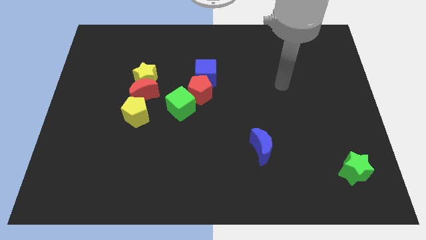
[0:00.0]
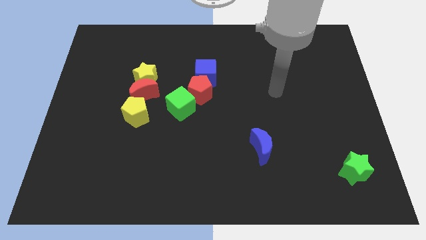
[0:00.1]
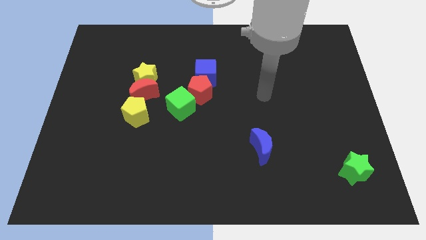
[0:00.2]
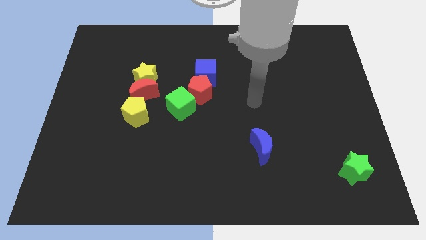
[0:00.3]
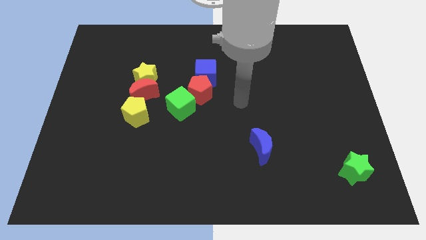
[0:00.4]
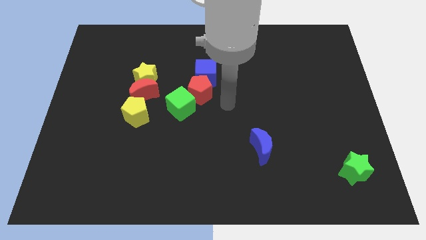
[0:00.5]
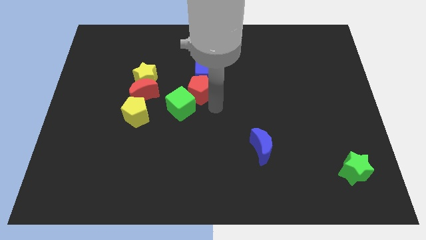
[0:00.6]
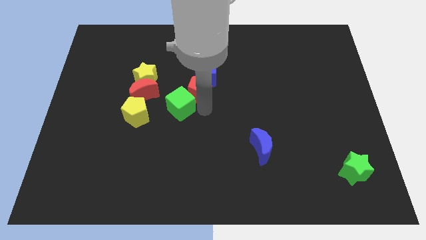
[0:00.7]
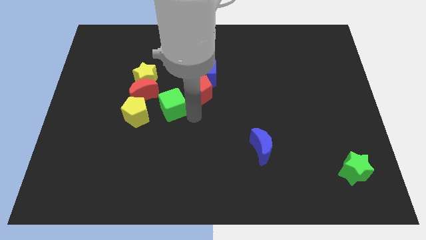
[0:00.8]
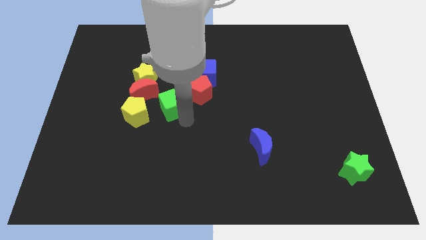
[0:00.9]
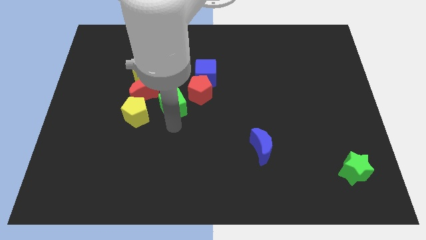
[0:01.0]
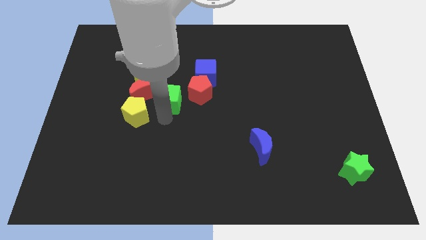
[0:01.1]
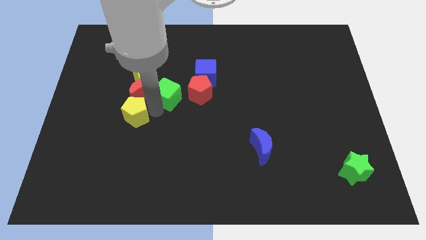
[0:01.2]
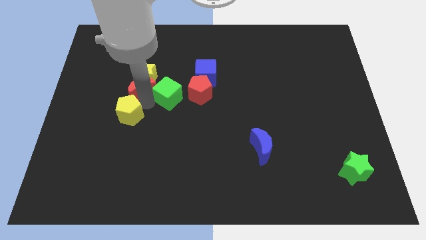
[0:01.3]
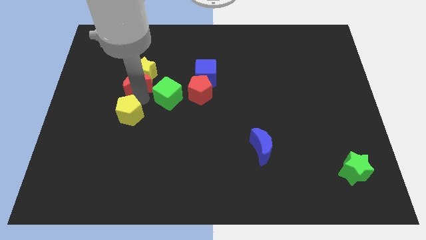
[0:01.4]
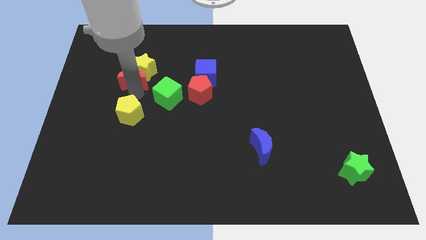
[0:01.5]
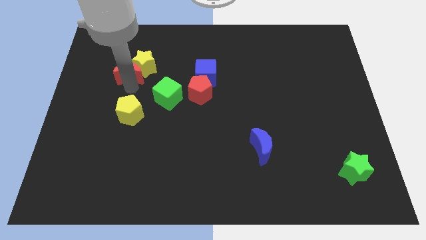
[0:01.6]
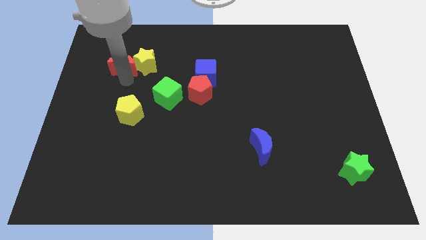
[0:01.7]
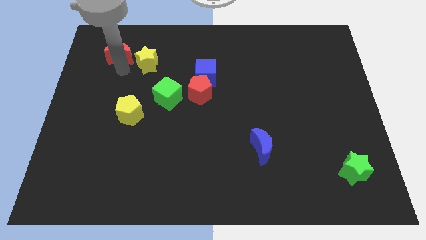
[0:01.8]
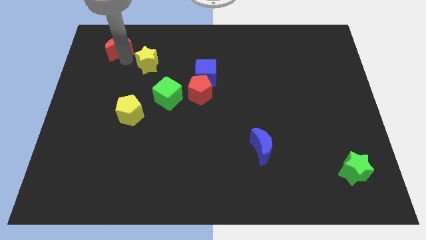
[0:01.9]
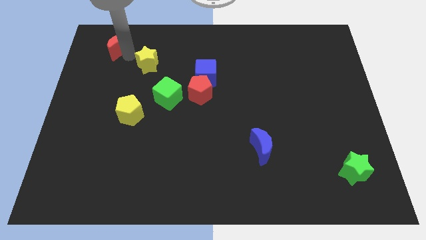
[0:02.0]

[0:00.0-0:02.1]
separate the yellow star from the red moon

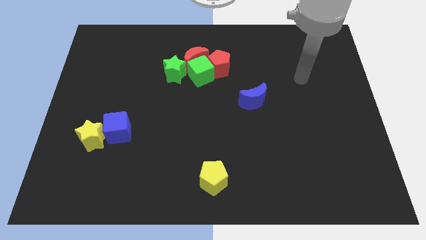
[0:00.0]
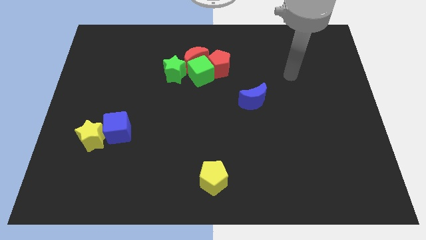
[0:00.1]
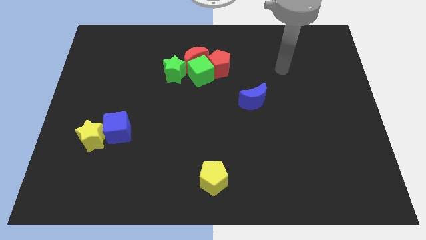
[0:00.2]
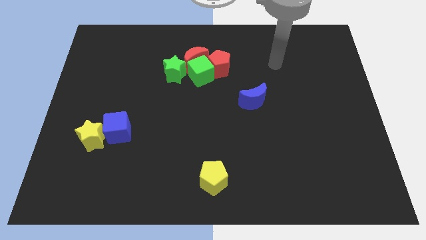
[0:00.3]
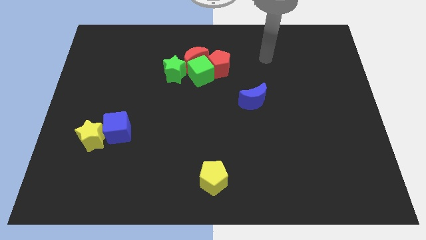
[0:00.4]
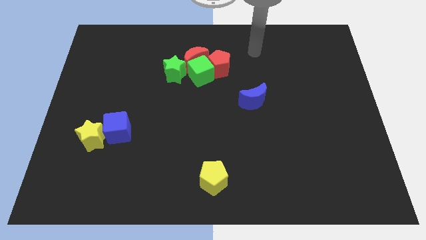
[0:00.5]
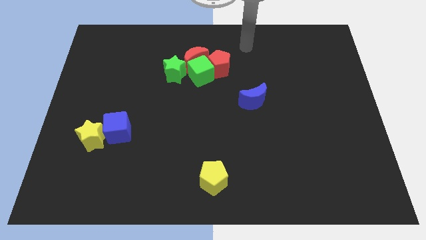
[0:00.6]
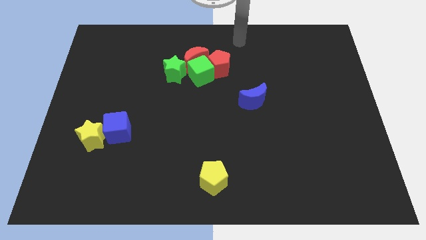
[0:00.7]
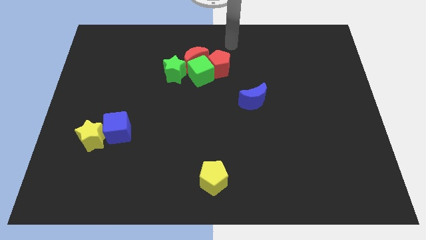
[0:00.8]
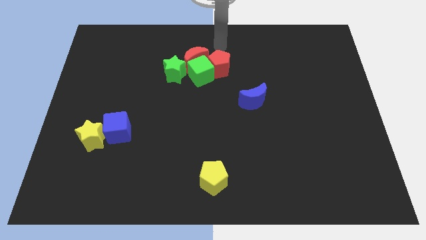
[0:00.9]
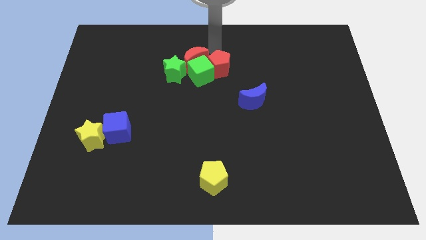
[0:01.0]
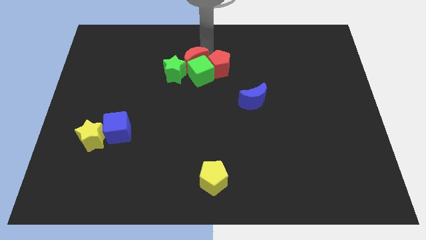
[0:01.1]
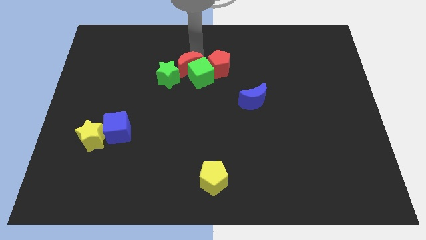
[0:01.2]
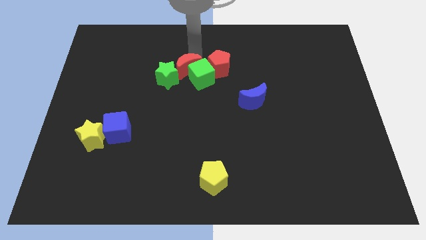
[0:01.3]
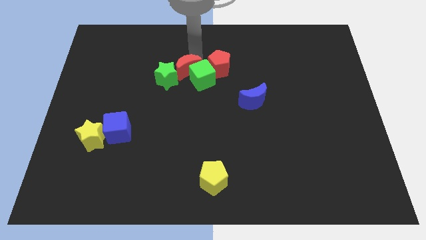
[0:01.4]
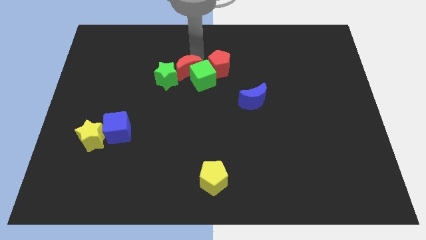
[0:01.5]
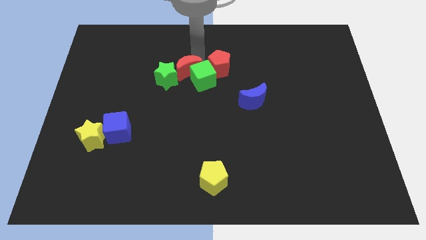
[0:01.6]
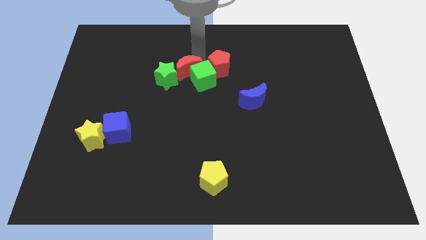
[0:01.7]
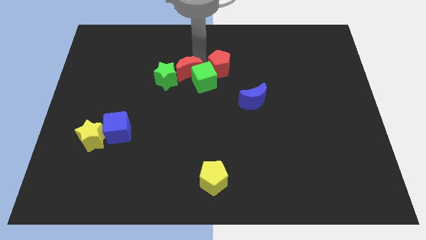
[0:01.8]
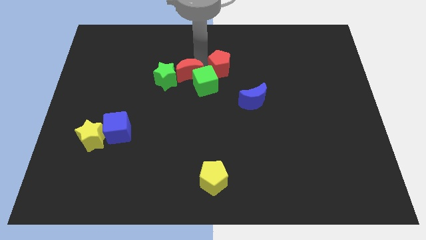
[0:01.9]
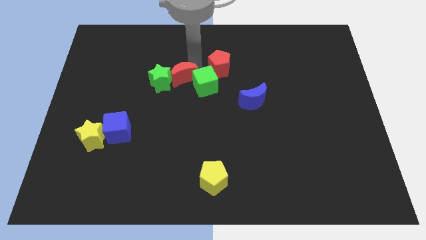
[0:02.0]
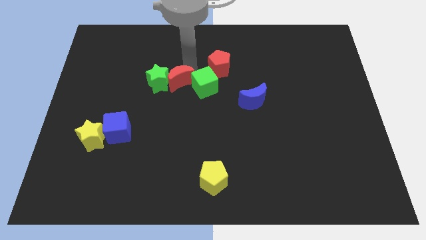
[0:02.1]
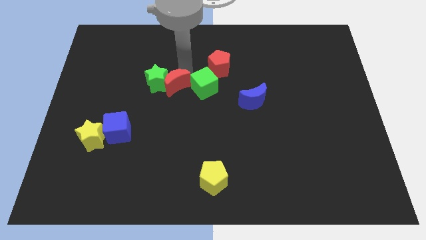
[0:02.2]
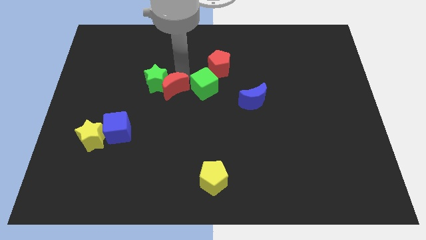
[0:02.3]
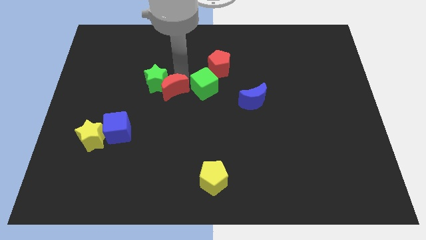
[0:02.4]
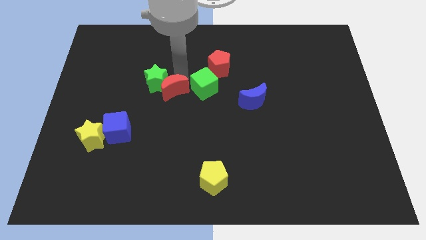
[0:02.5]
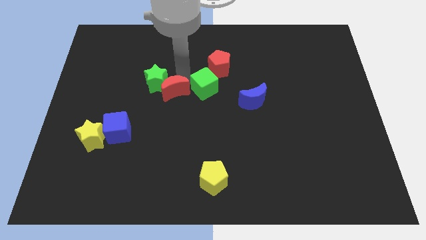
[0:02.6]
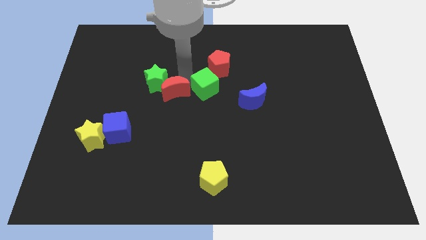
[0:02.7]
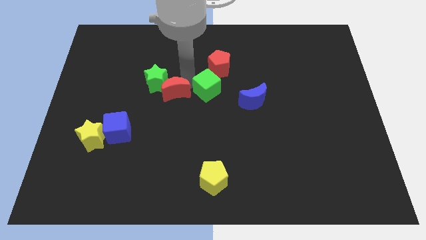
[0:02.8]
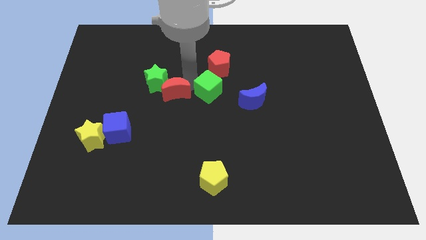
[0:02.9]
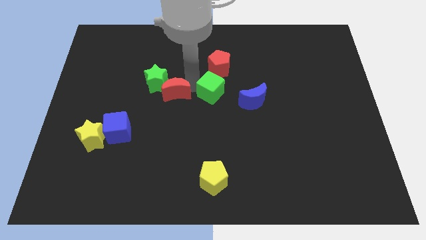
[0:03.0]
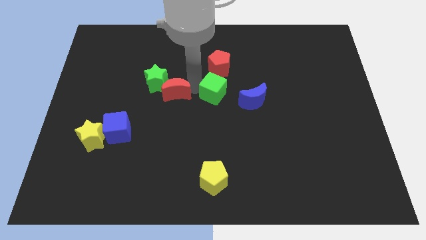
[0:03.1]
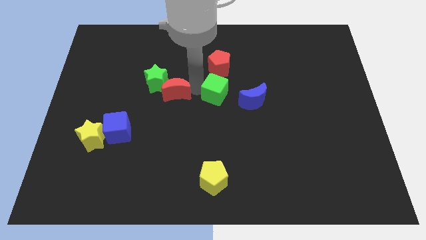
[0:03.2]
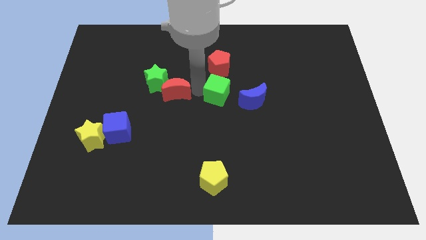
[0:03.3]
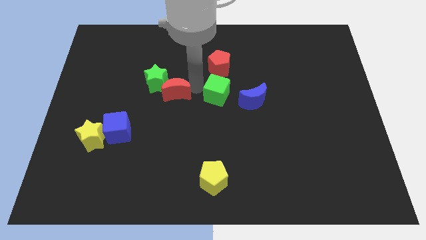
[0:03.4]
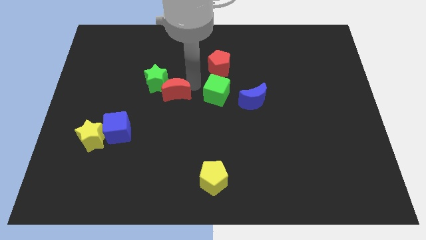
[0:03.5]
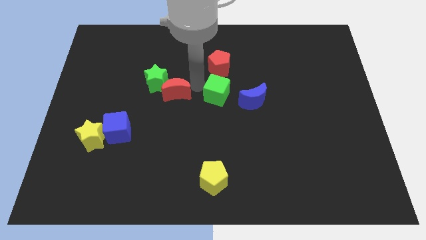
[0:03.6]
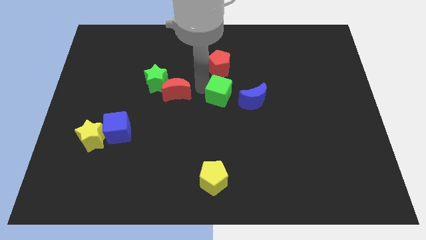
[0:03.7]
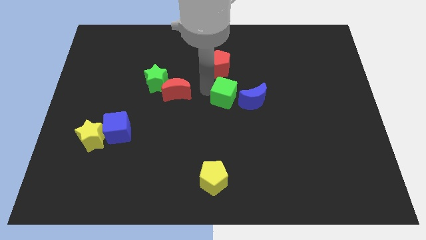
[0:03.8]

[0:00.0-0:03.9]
move the green cube away from the group

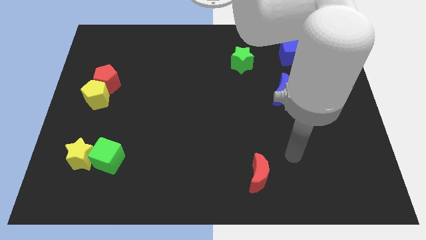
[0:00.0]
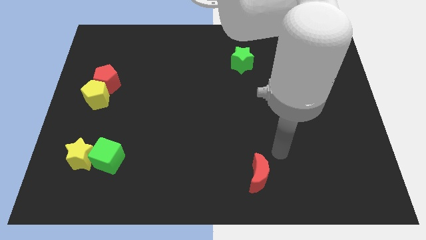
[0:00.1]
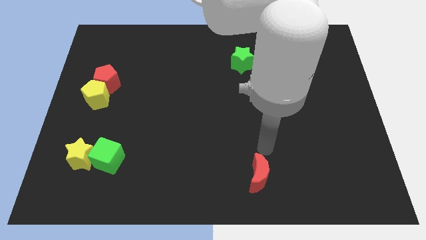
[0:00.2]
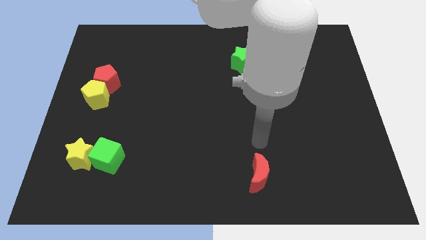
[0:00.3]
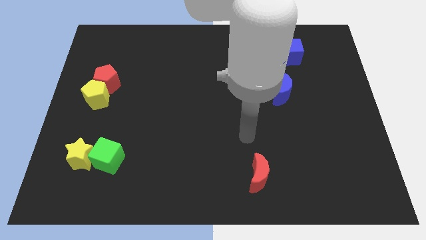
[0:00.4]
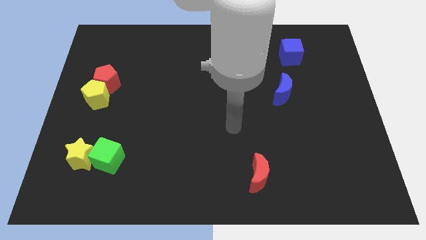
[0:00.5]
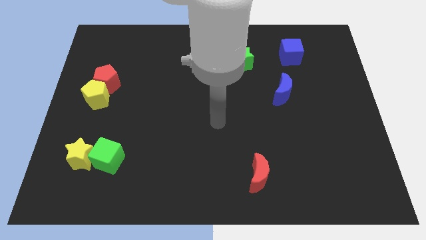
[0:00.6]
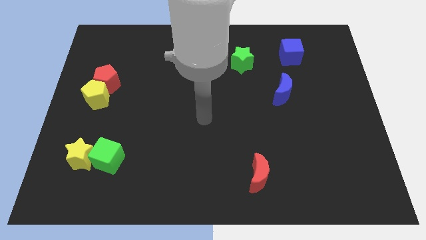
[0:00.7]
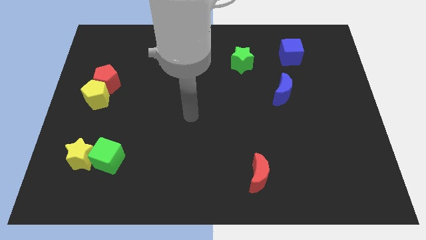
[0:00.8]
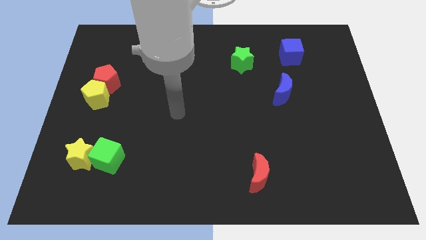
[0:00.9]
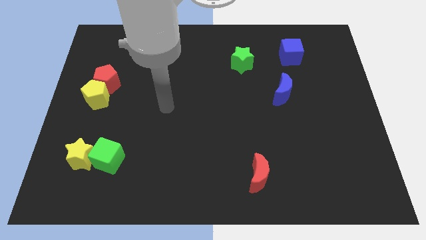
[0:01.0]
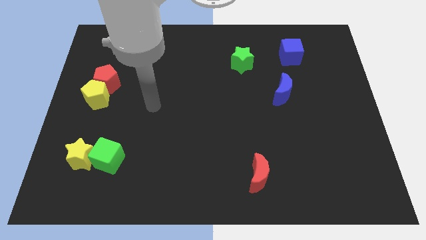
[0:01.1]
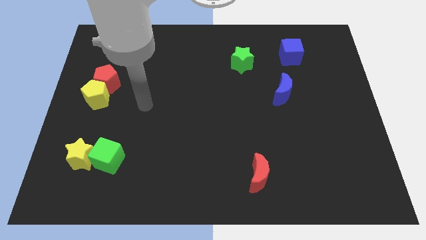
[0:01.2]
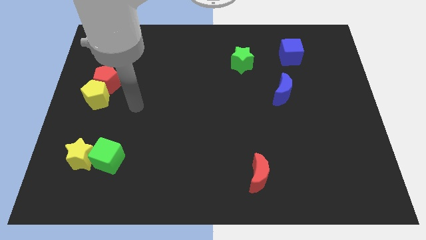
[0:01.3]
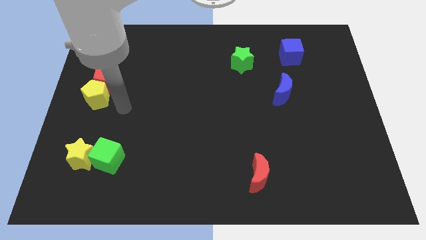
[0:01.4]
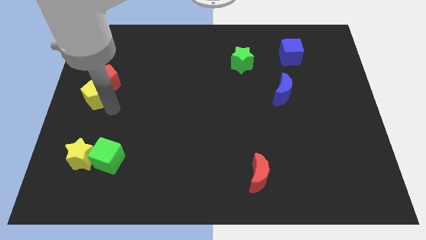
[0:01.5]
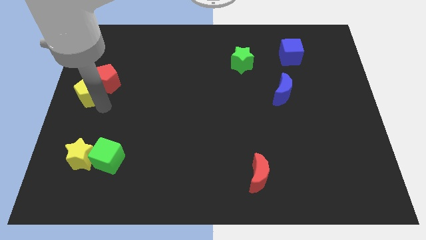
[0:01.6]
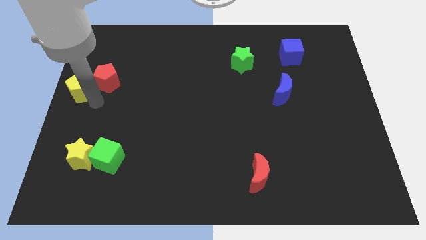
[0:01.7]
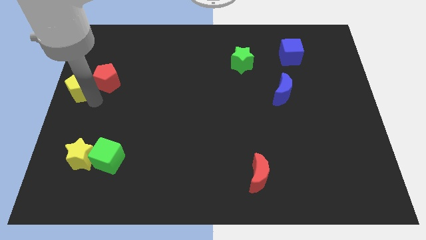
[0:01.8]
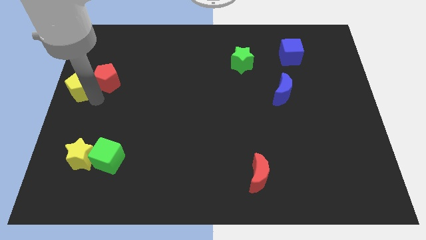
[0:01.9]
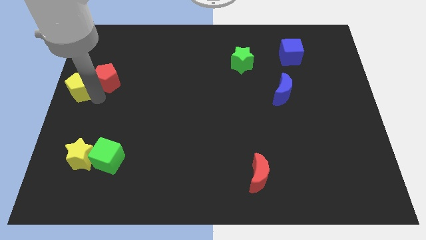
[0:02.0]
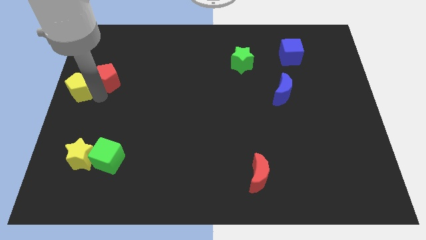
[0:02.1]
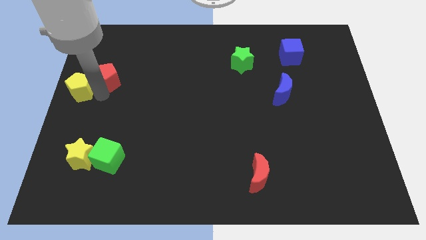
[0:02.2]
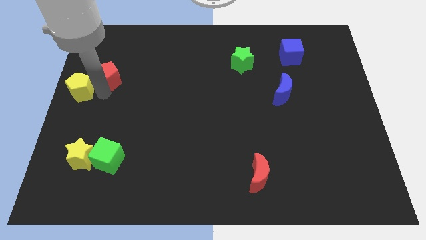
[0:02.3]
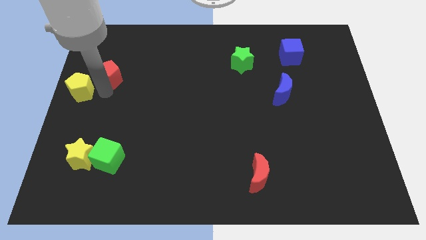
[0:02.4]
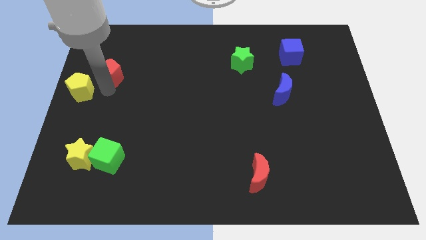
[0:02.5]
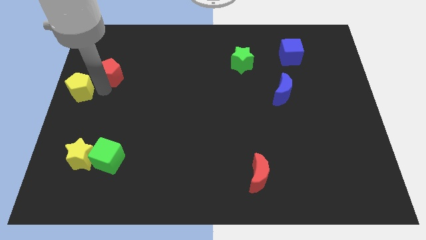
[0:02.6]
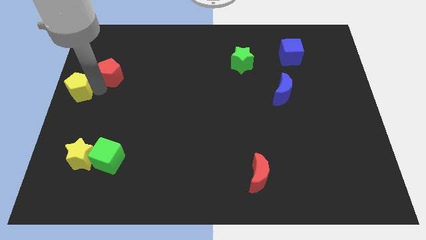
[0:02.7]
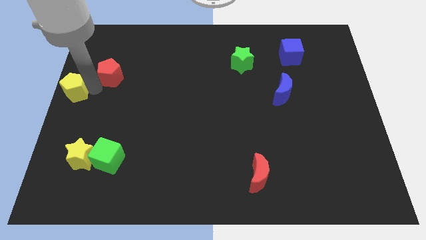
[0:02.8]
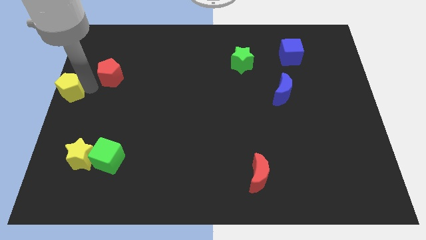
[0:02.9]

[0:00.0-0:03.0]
move the red pentagon away from the yellow pentagon

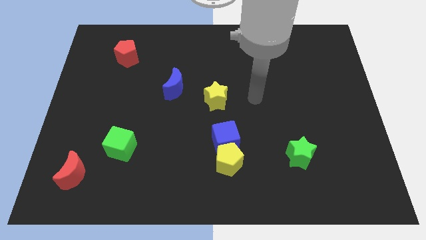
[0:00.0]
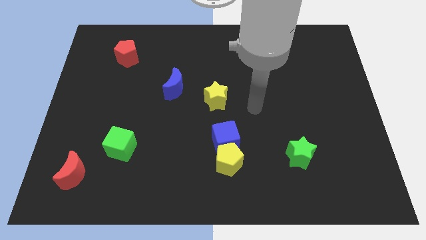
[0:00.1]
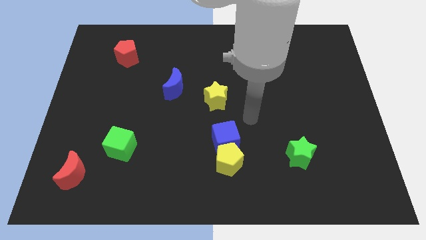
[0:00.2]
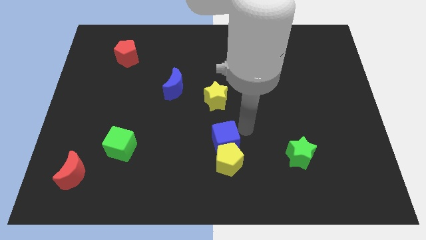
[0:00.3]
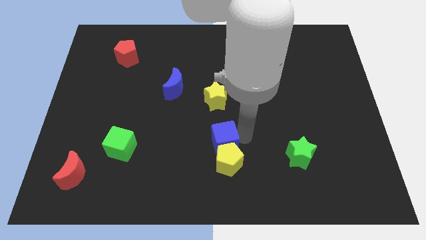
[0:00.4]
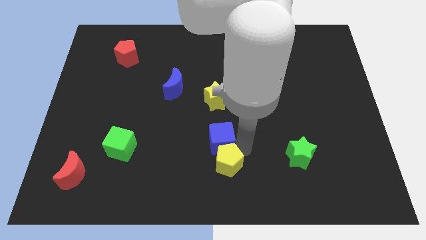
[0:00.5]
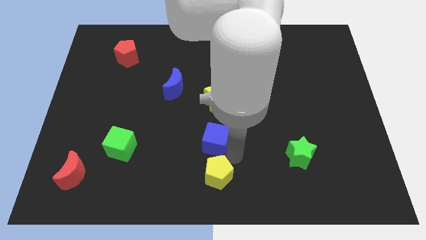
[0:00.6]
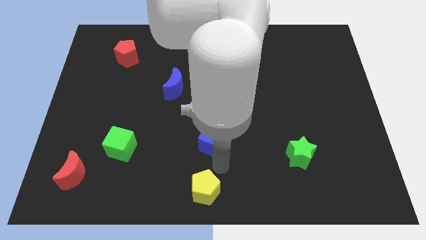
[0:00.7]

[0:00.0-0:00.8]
pull the blue cube apart from the yellow pentagon
